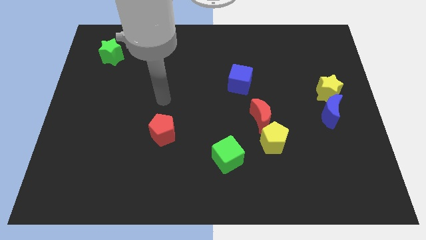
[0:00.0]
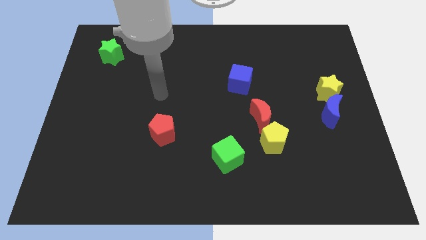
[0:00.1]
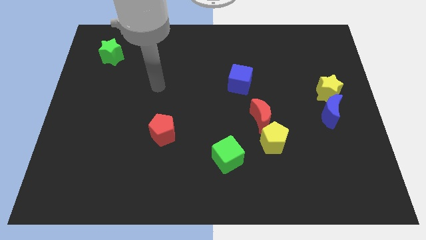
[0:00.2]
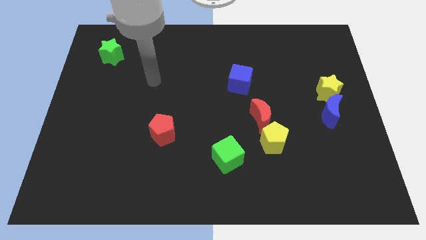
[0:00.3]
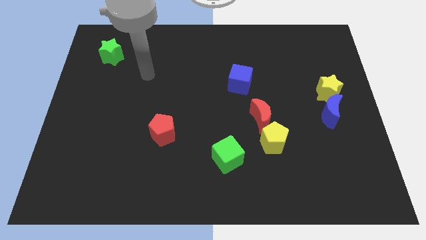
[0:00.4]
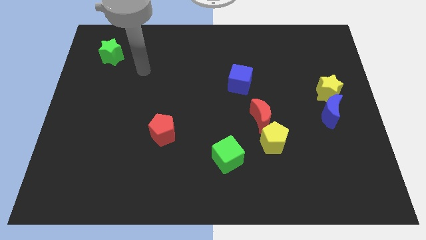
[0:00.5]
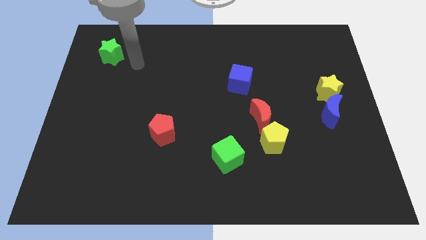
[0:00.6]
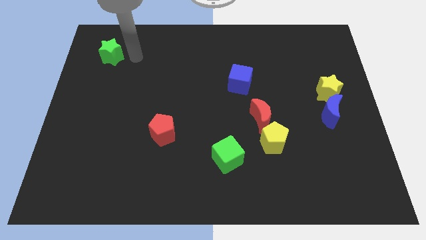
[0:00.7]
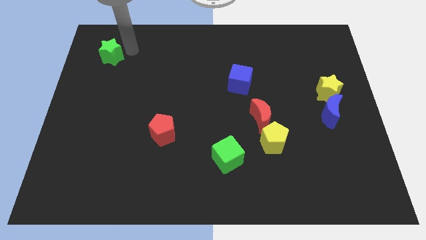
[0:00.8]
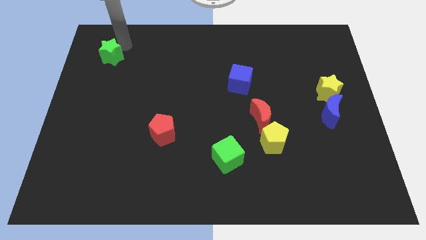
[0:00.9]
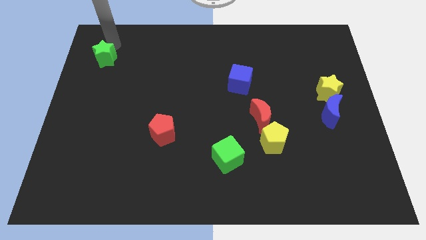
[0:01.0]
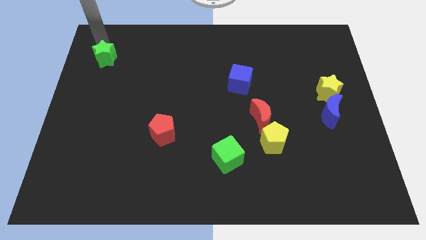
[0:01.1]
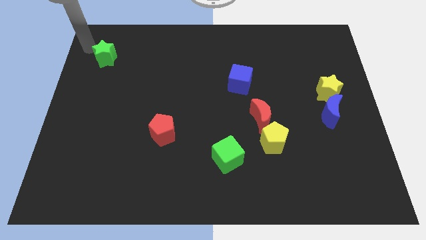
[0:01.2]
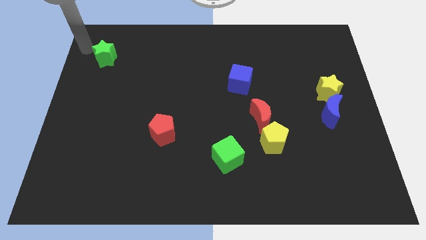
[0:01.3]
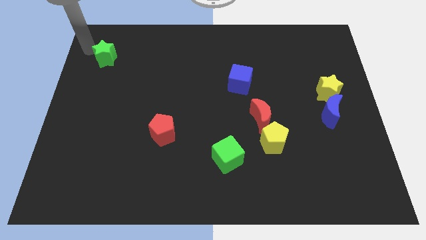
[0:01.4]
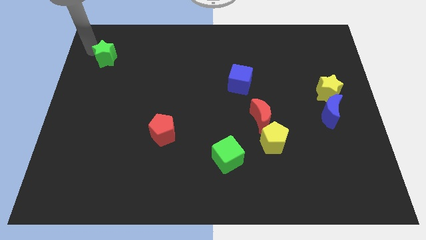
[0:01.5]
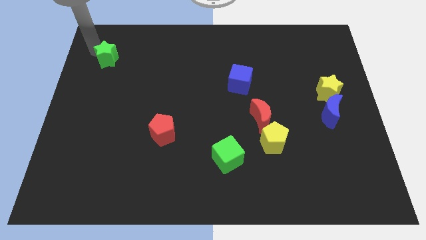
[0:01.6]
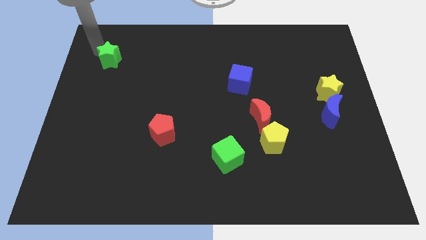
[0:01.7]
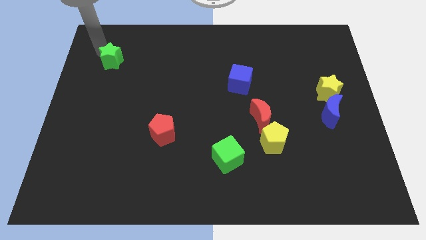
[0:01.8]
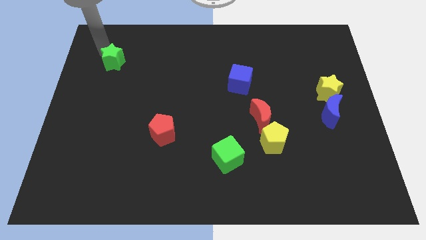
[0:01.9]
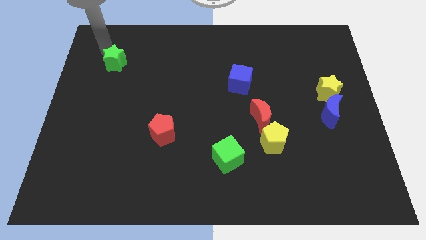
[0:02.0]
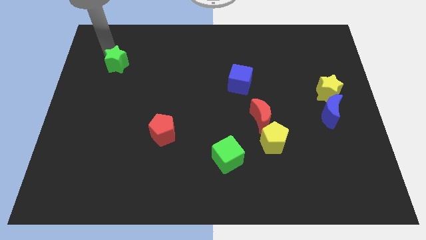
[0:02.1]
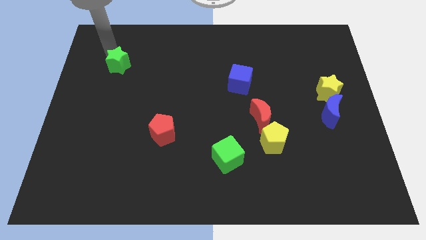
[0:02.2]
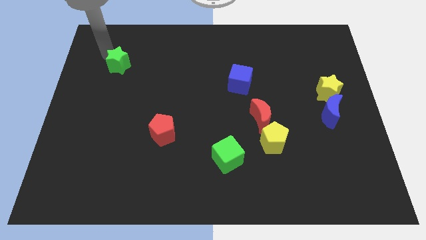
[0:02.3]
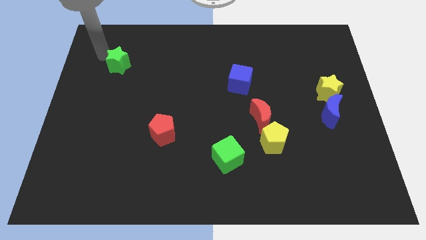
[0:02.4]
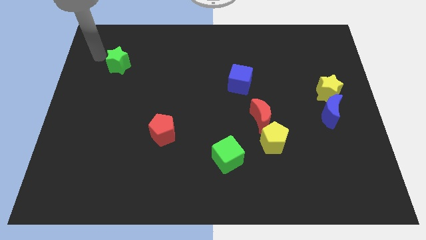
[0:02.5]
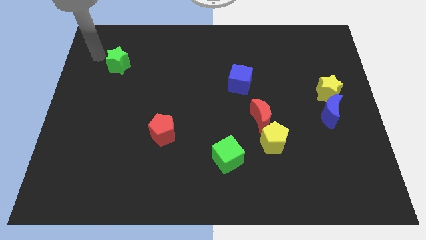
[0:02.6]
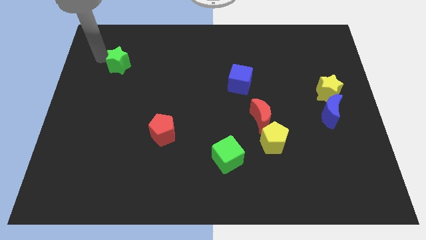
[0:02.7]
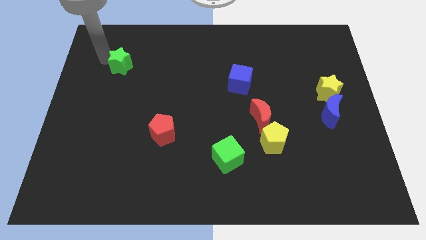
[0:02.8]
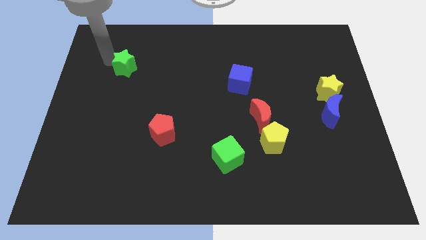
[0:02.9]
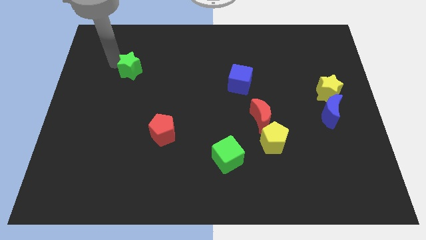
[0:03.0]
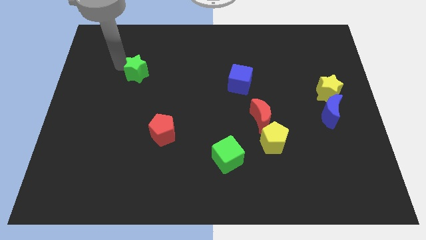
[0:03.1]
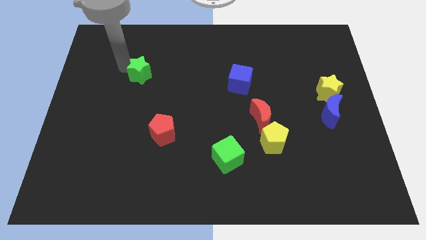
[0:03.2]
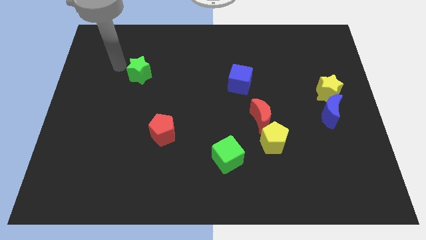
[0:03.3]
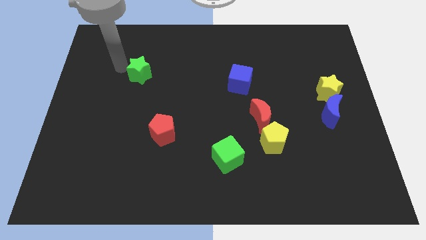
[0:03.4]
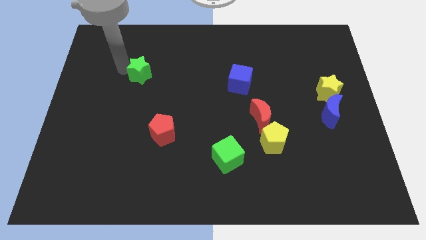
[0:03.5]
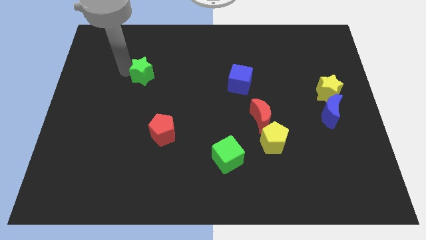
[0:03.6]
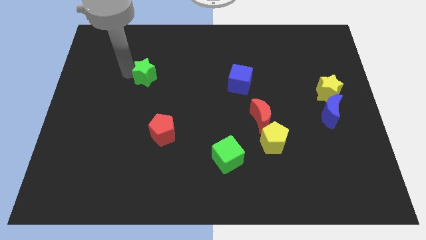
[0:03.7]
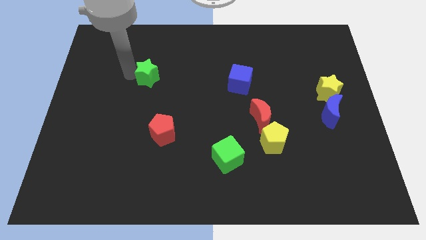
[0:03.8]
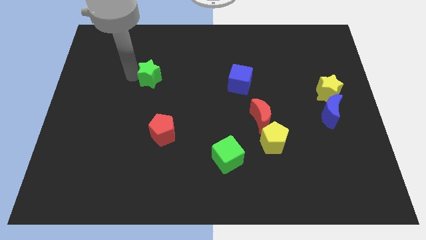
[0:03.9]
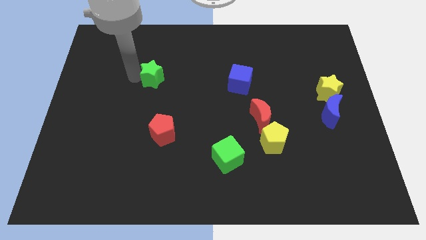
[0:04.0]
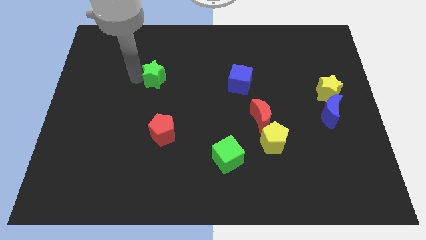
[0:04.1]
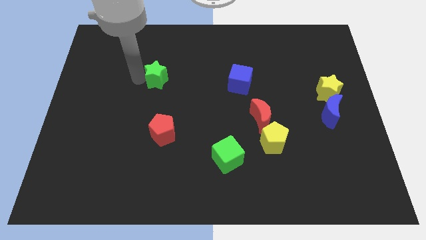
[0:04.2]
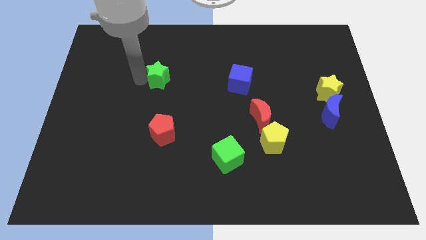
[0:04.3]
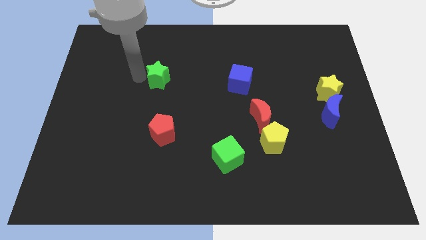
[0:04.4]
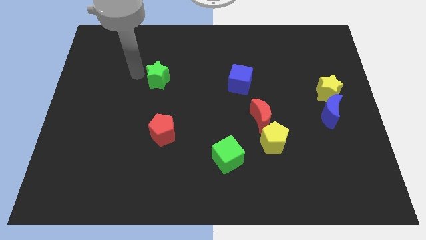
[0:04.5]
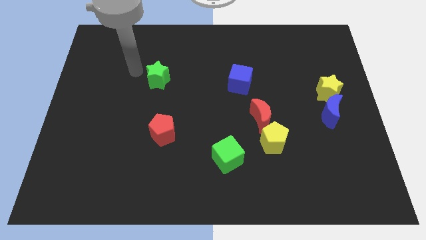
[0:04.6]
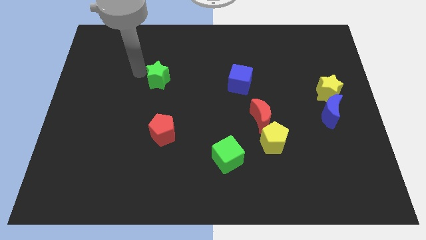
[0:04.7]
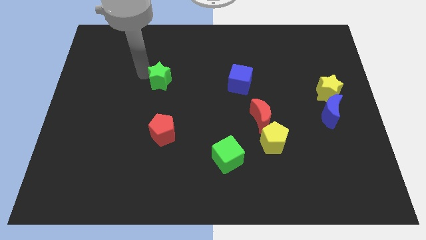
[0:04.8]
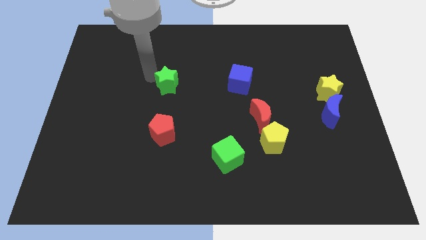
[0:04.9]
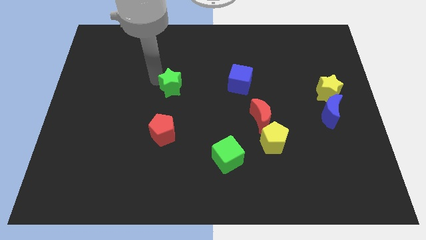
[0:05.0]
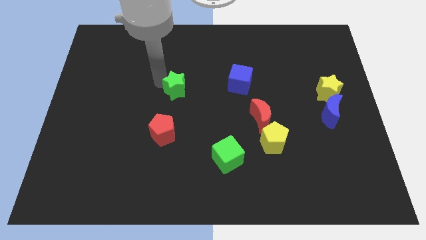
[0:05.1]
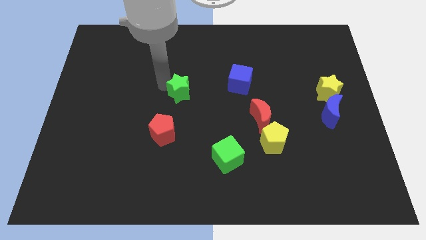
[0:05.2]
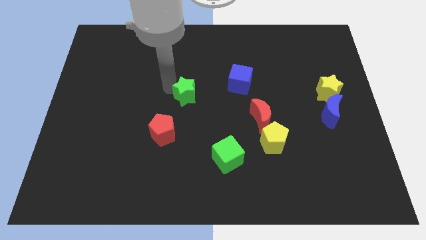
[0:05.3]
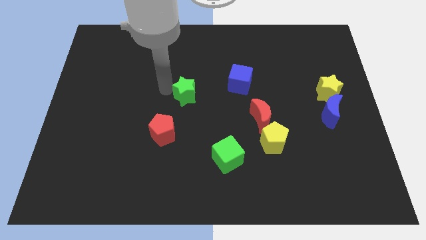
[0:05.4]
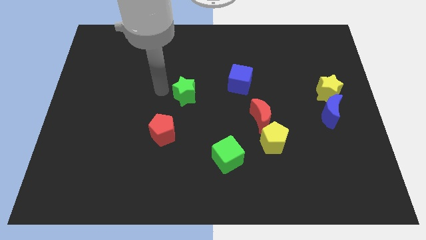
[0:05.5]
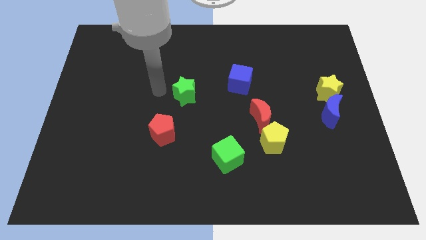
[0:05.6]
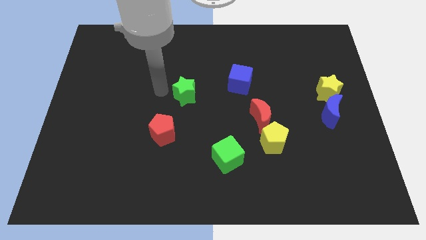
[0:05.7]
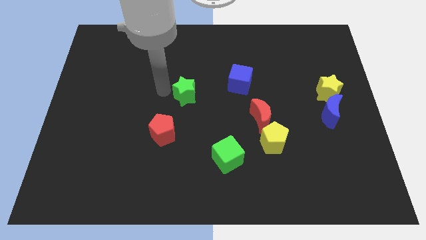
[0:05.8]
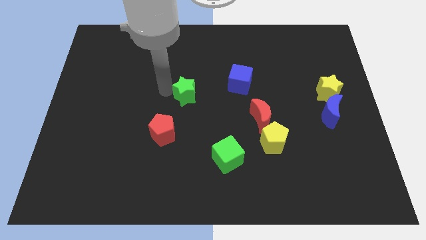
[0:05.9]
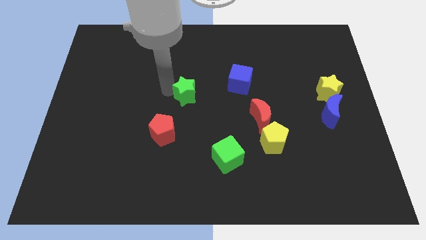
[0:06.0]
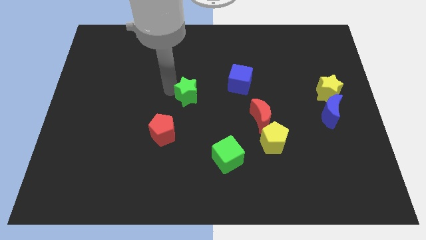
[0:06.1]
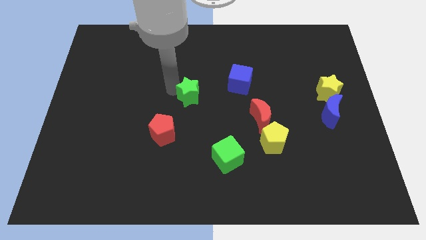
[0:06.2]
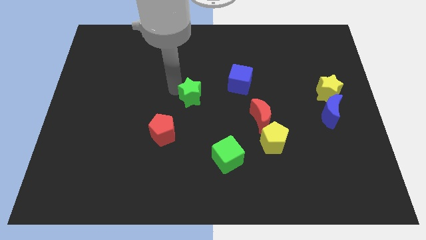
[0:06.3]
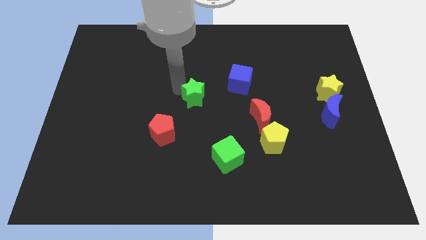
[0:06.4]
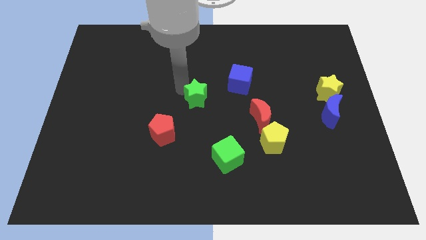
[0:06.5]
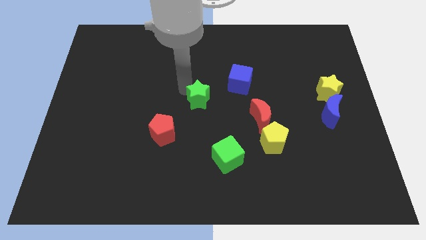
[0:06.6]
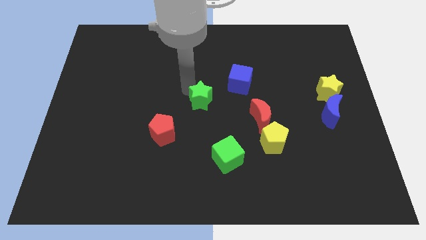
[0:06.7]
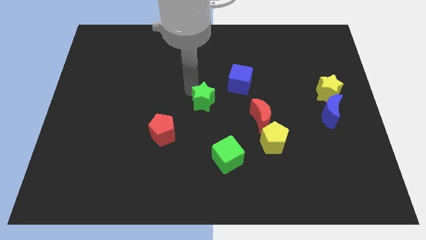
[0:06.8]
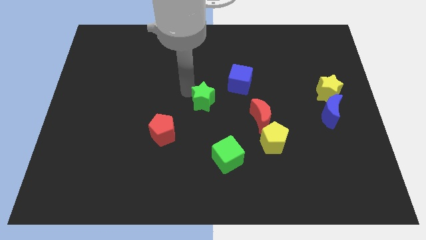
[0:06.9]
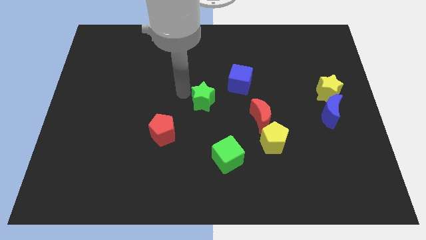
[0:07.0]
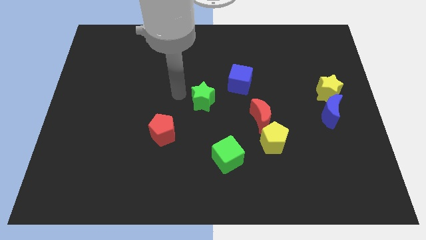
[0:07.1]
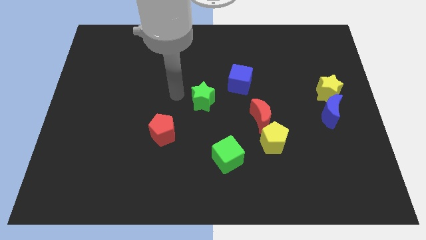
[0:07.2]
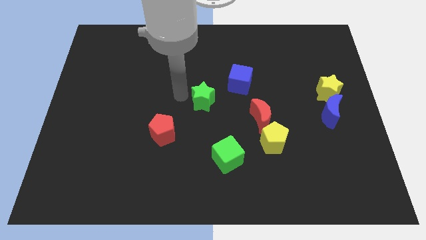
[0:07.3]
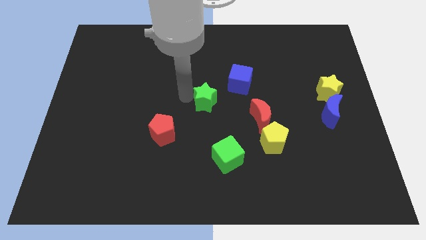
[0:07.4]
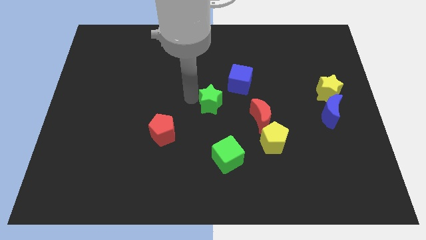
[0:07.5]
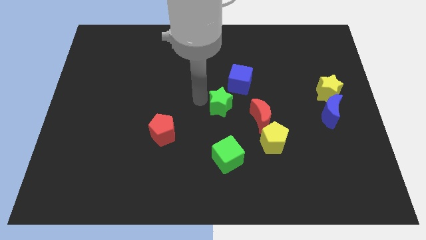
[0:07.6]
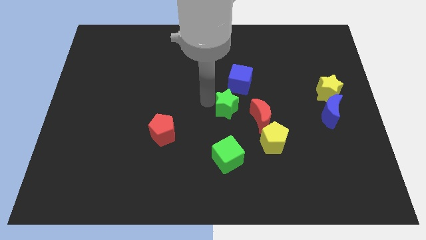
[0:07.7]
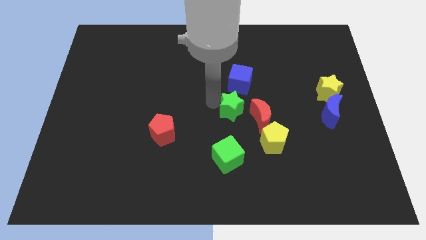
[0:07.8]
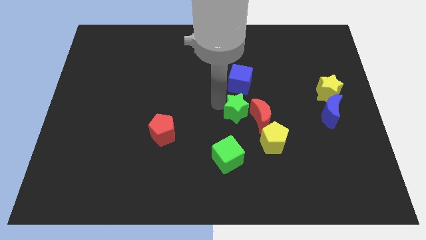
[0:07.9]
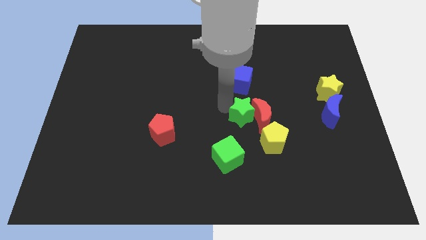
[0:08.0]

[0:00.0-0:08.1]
slide the green star next to the red moon
